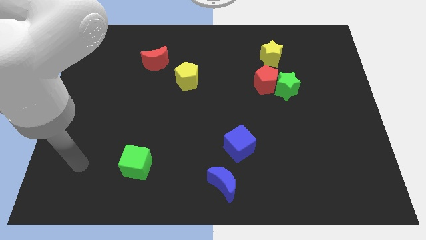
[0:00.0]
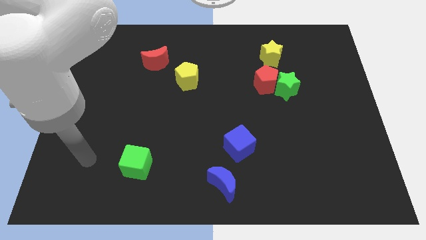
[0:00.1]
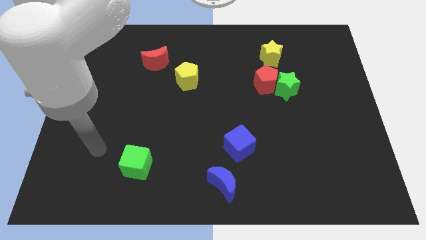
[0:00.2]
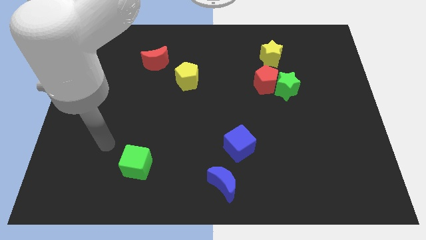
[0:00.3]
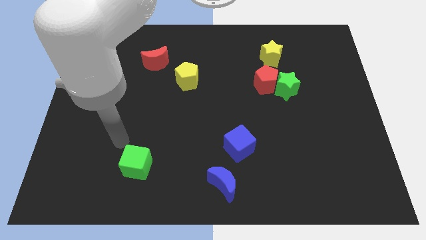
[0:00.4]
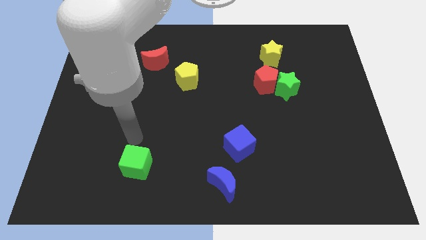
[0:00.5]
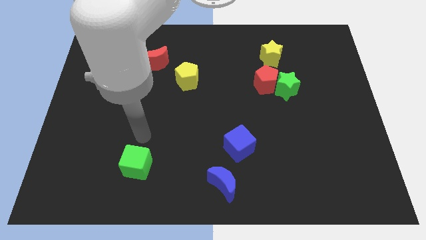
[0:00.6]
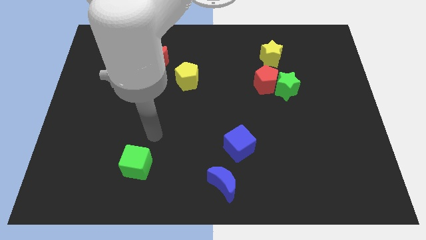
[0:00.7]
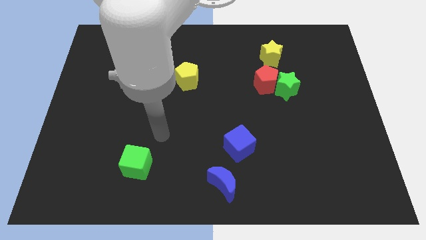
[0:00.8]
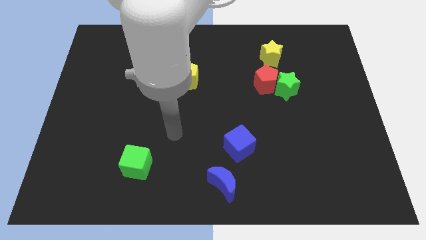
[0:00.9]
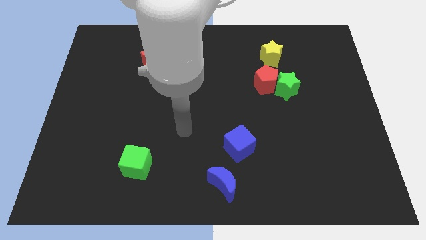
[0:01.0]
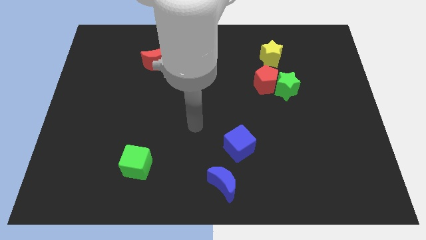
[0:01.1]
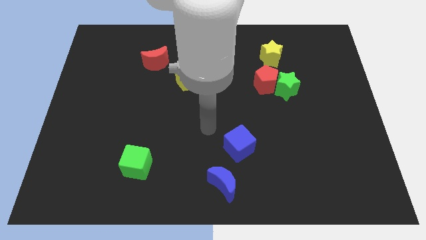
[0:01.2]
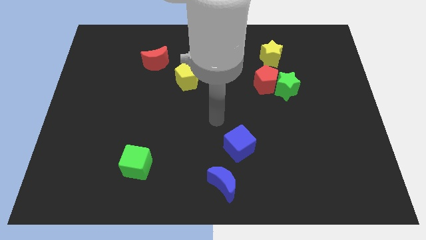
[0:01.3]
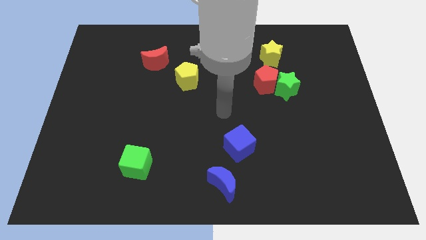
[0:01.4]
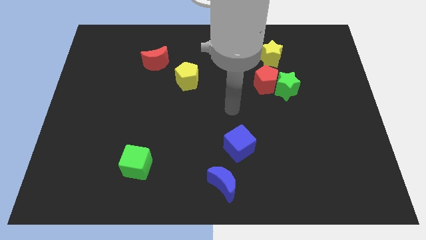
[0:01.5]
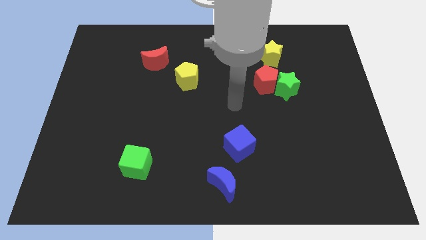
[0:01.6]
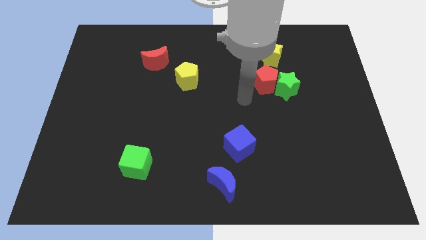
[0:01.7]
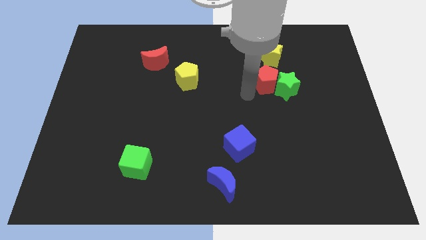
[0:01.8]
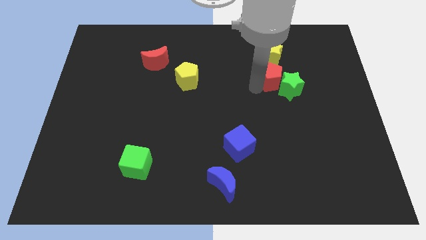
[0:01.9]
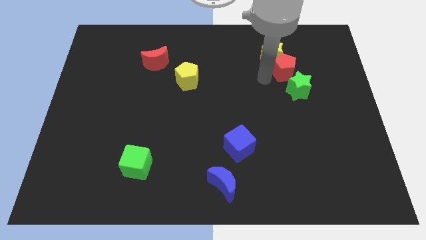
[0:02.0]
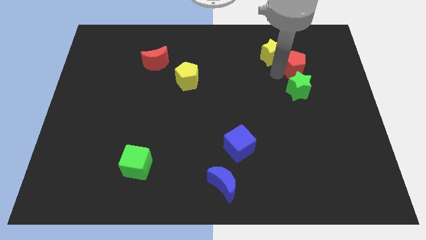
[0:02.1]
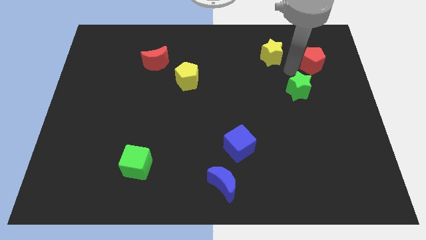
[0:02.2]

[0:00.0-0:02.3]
pull the green star apart from the red pentagon

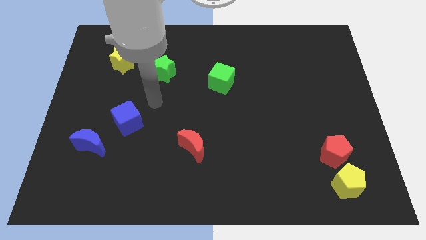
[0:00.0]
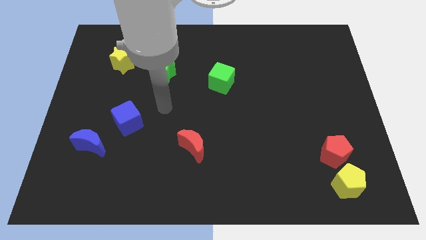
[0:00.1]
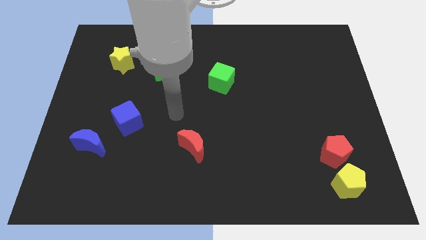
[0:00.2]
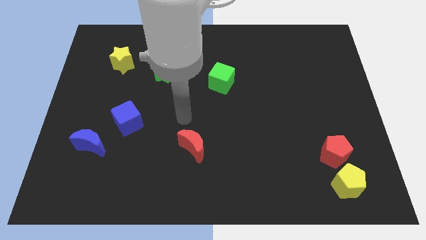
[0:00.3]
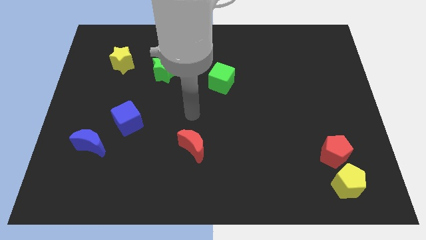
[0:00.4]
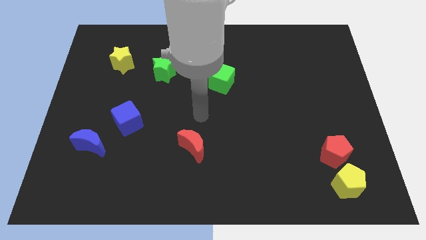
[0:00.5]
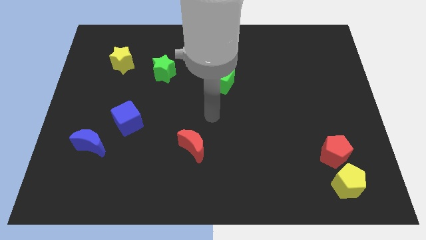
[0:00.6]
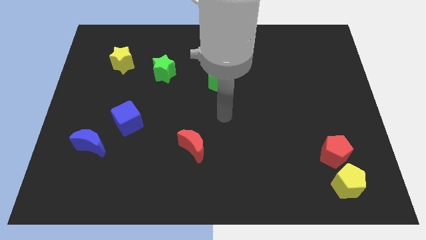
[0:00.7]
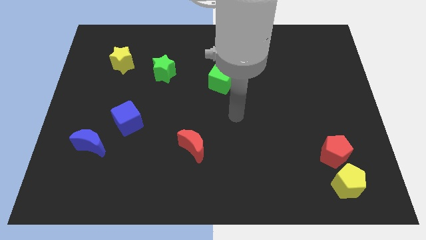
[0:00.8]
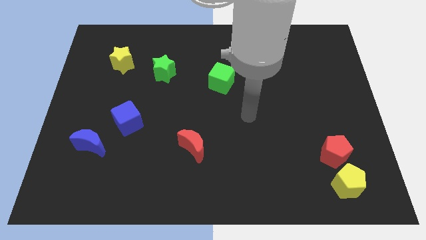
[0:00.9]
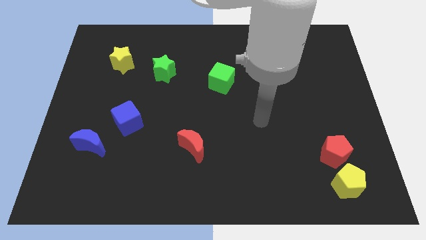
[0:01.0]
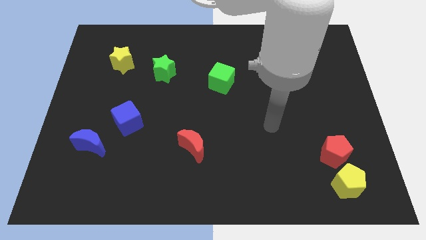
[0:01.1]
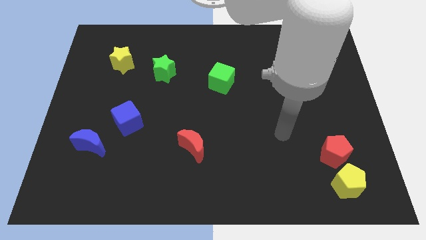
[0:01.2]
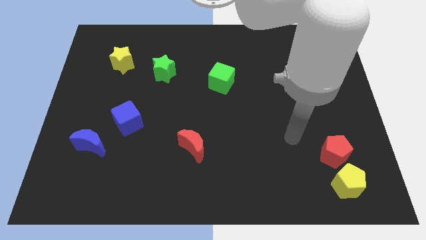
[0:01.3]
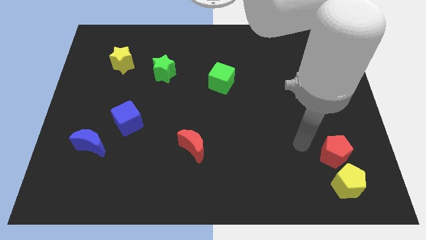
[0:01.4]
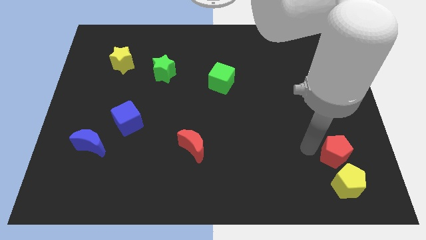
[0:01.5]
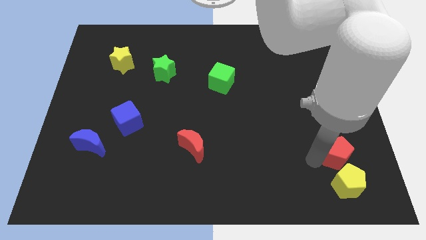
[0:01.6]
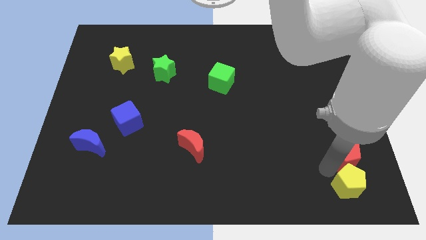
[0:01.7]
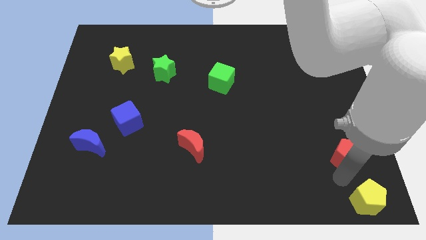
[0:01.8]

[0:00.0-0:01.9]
pull the red pentagon apart from the yellow pentagon

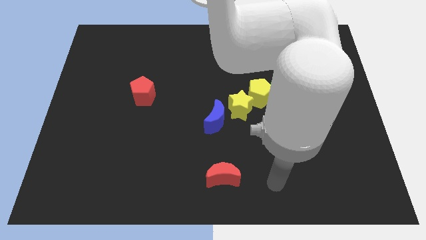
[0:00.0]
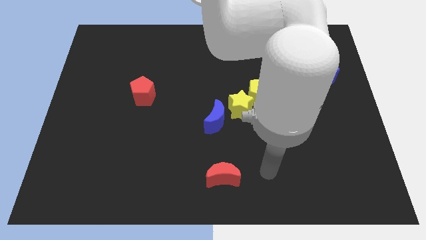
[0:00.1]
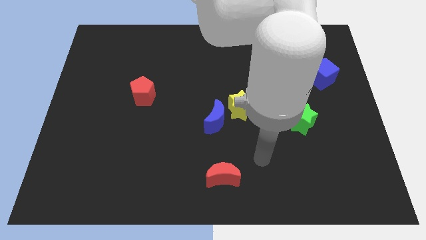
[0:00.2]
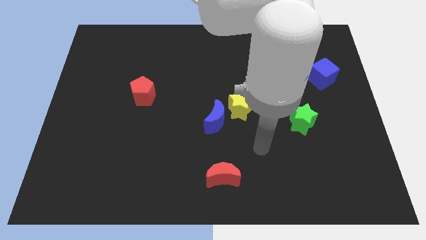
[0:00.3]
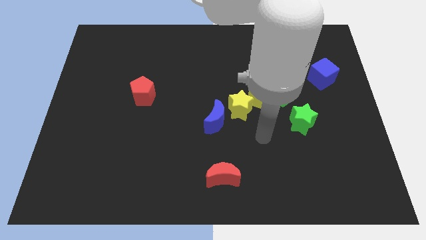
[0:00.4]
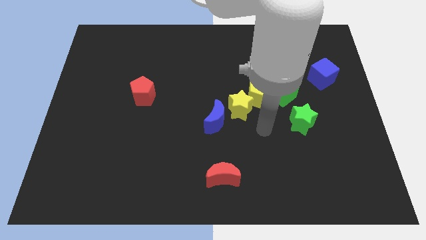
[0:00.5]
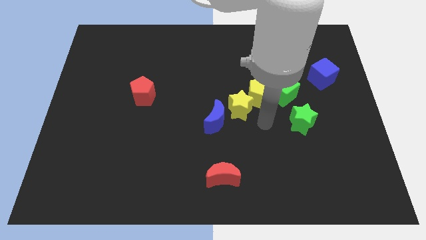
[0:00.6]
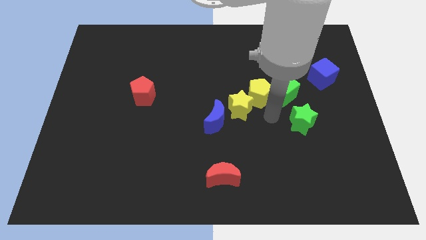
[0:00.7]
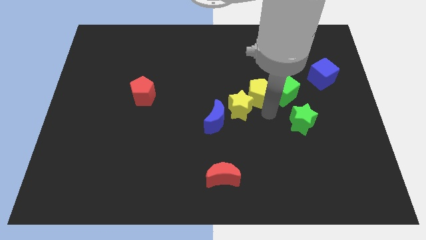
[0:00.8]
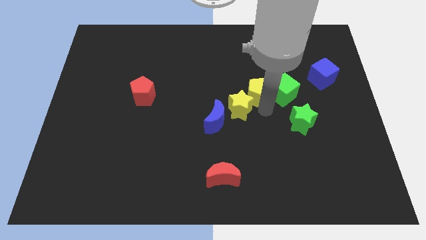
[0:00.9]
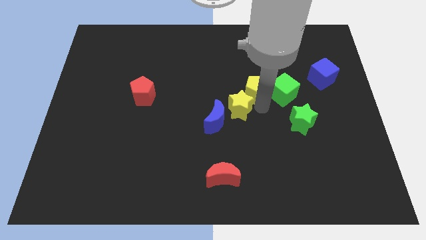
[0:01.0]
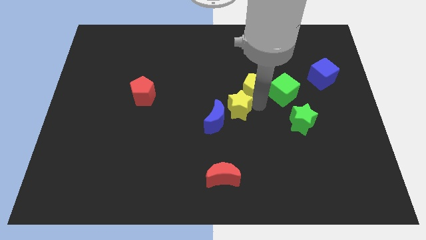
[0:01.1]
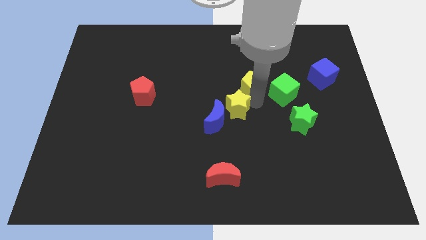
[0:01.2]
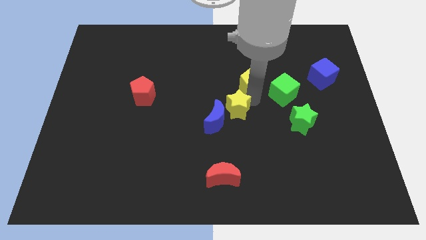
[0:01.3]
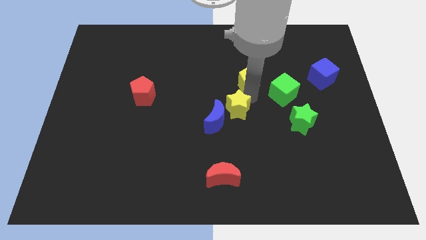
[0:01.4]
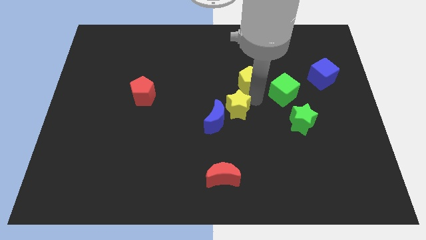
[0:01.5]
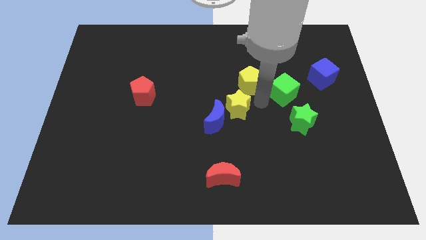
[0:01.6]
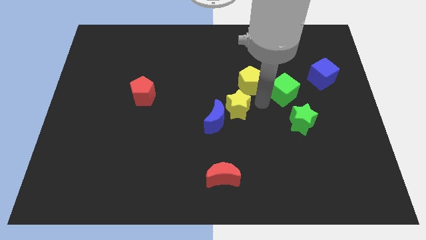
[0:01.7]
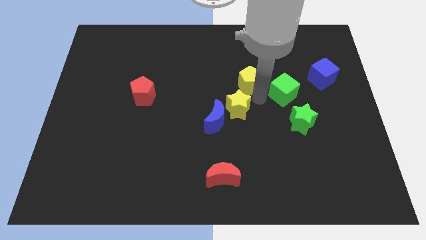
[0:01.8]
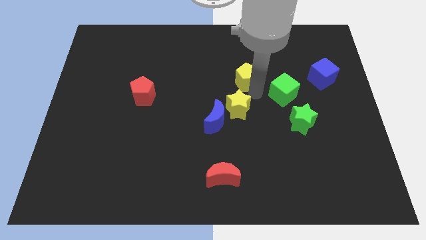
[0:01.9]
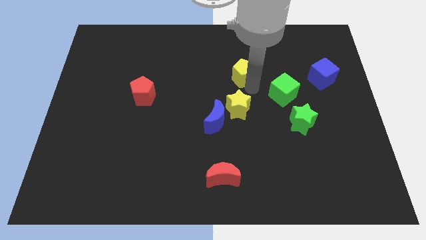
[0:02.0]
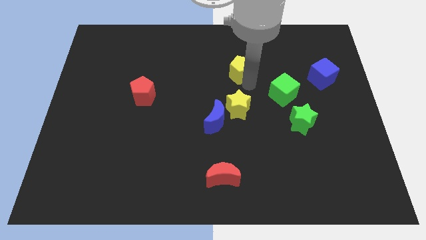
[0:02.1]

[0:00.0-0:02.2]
pull the yellow pentagon apart from the green cube and yellow star

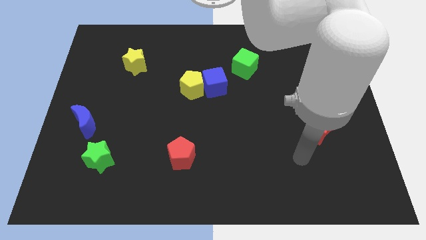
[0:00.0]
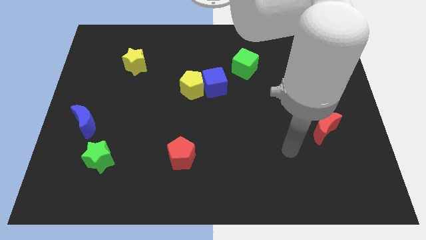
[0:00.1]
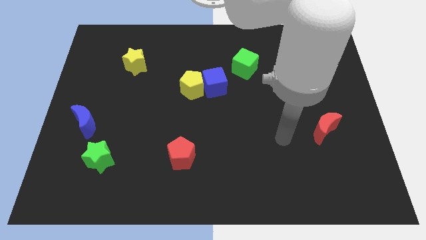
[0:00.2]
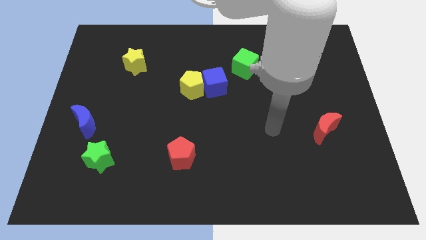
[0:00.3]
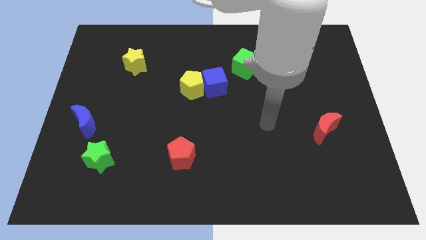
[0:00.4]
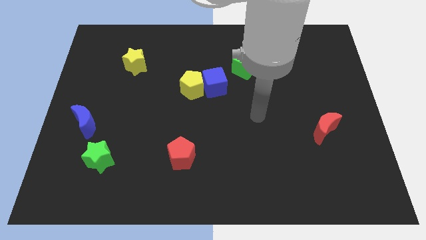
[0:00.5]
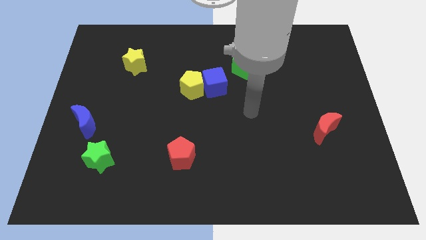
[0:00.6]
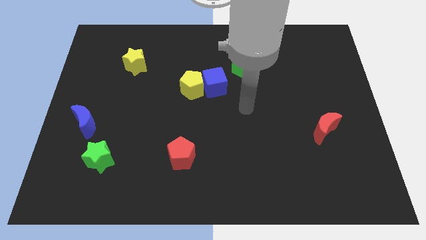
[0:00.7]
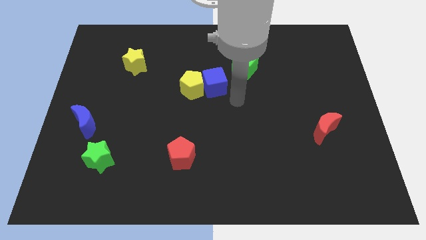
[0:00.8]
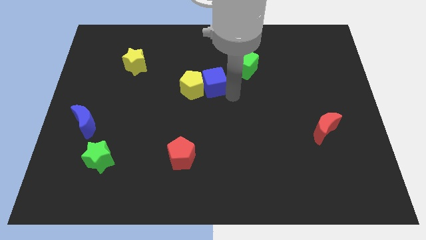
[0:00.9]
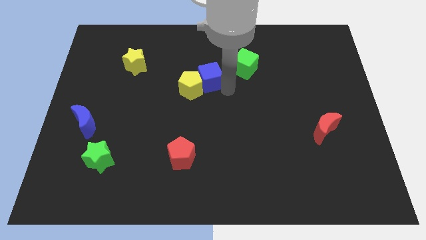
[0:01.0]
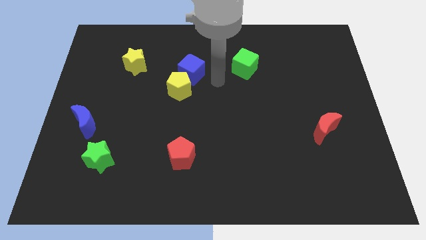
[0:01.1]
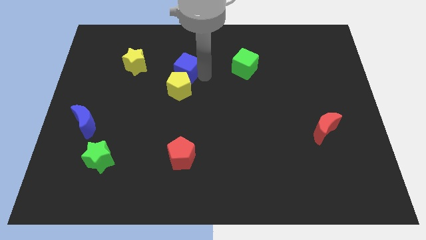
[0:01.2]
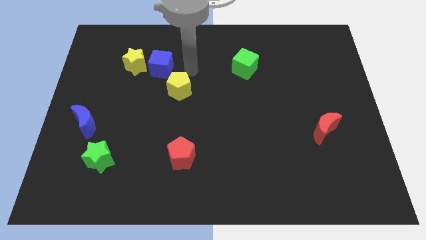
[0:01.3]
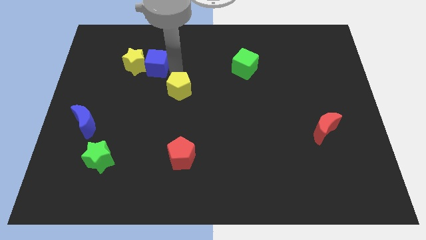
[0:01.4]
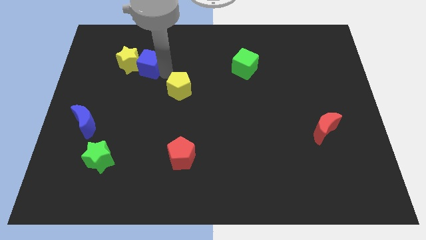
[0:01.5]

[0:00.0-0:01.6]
pull the yellow pentagon apart from the blue cube

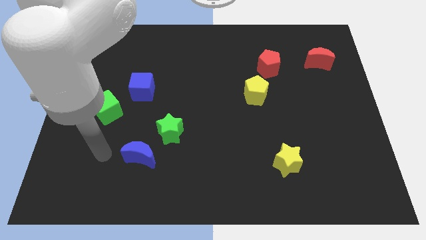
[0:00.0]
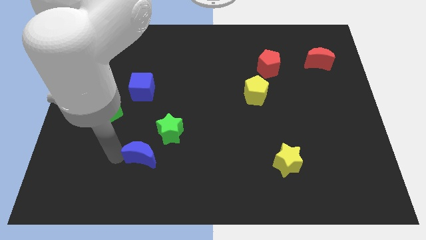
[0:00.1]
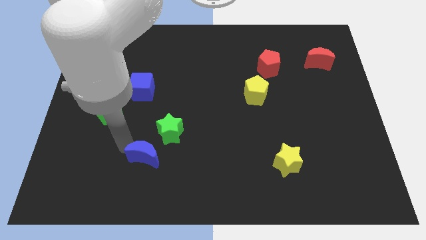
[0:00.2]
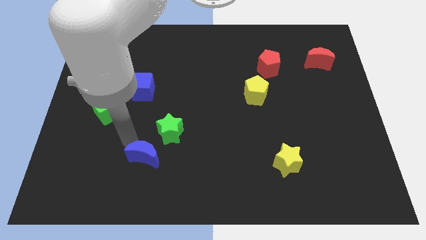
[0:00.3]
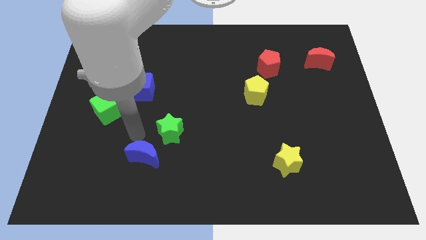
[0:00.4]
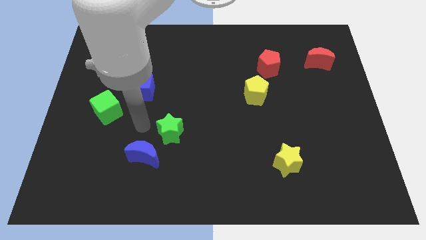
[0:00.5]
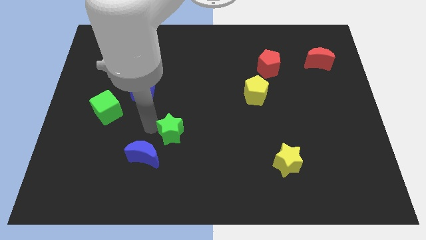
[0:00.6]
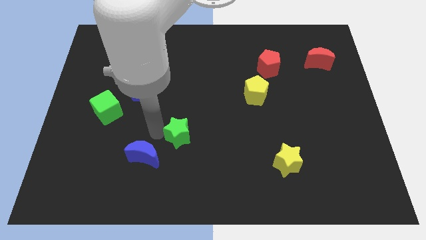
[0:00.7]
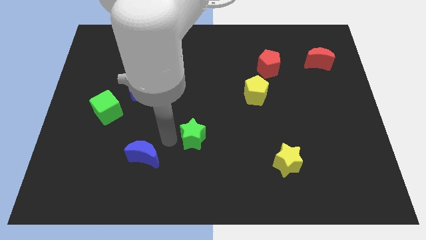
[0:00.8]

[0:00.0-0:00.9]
separate the blue moon from the green star

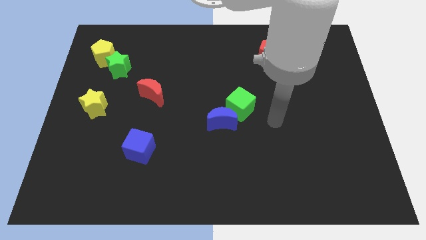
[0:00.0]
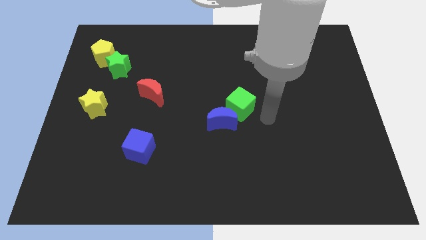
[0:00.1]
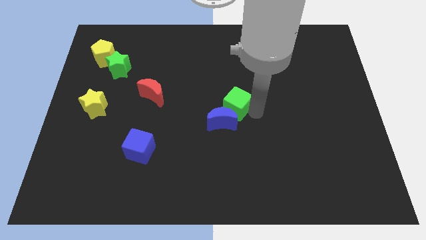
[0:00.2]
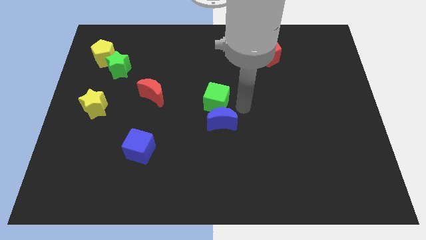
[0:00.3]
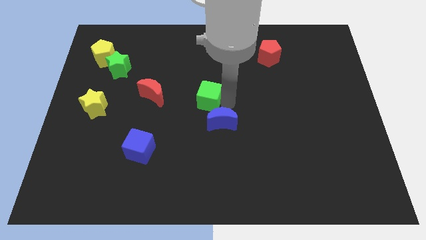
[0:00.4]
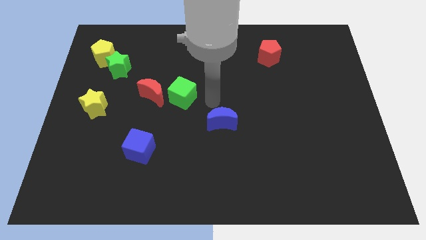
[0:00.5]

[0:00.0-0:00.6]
pull the blue moon apart from the green cube
